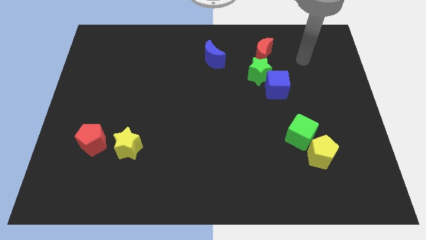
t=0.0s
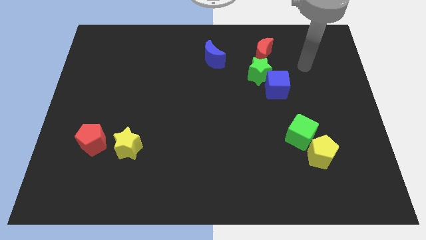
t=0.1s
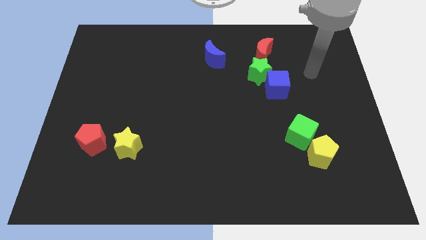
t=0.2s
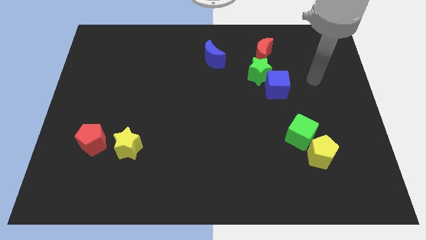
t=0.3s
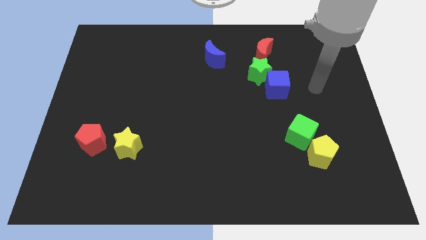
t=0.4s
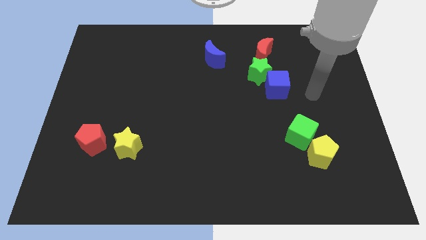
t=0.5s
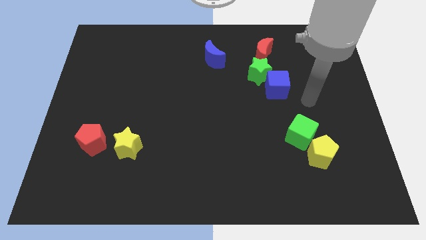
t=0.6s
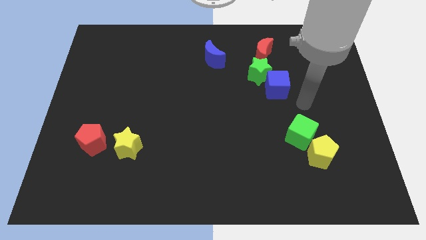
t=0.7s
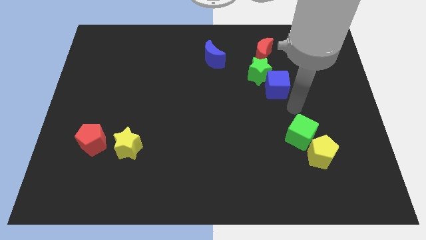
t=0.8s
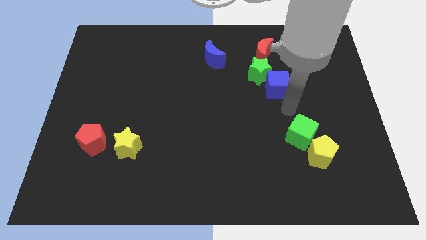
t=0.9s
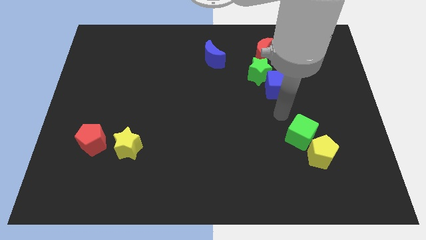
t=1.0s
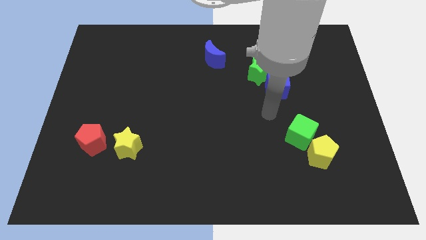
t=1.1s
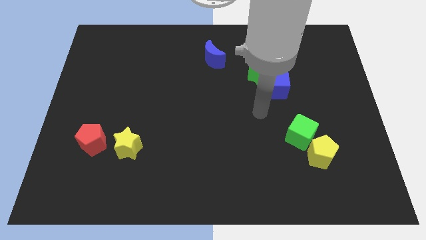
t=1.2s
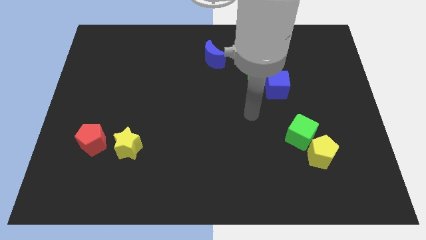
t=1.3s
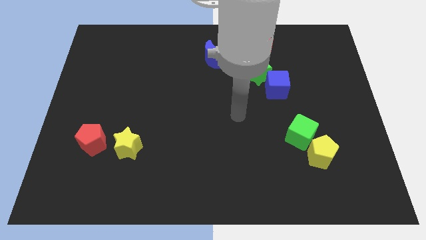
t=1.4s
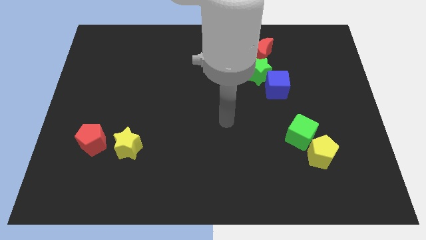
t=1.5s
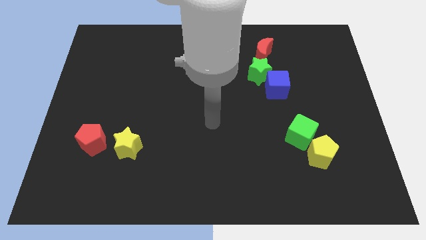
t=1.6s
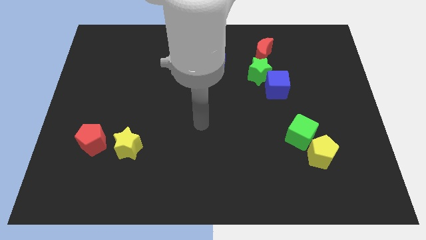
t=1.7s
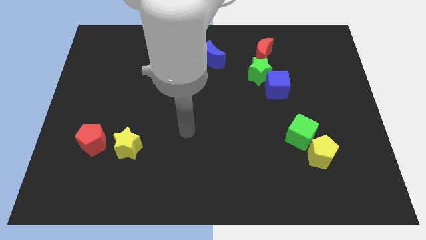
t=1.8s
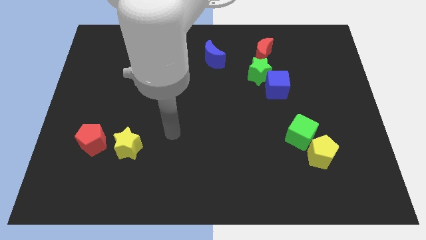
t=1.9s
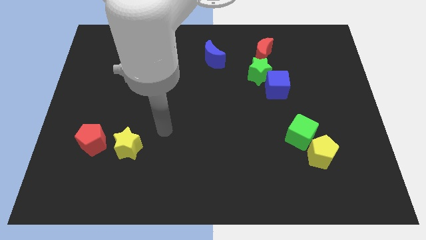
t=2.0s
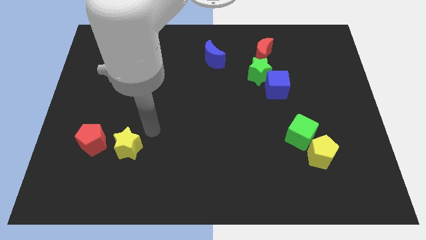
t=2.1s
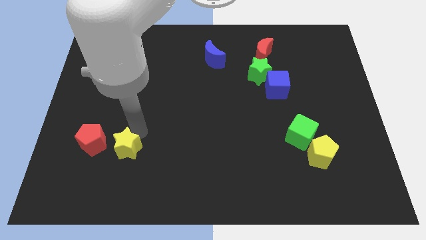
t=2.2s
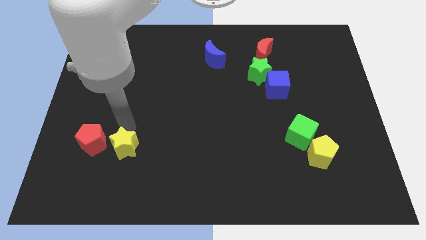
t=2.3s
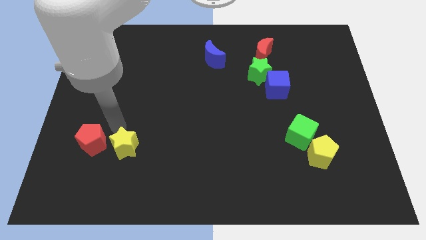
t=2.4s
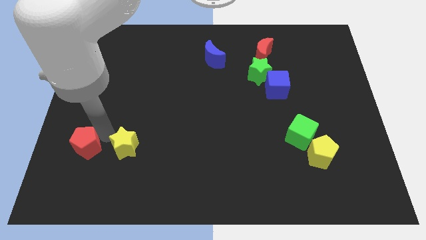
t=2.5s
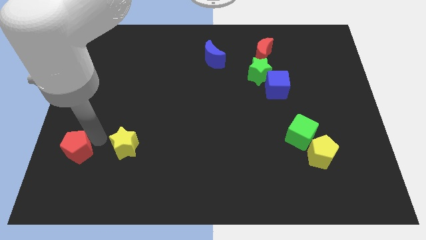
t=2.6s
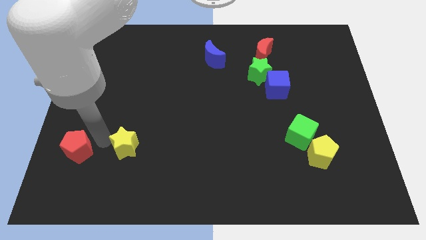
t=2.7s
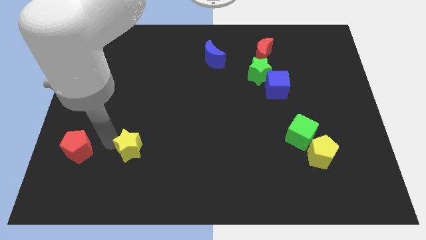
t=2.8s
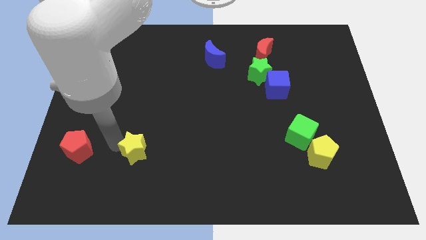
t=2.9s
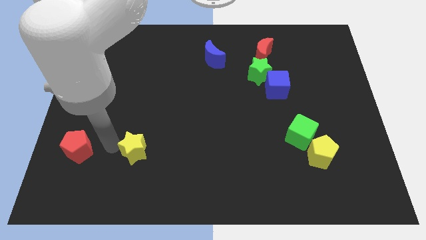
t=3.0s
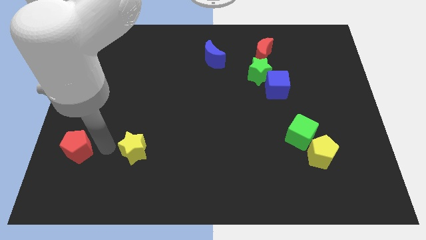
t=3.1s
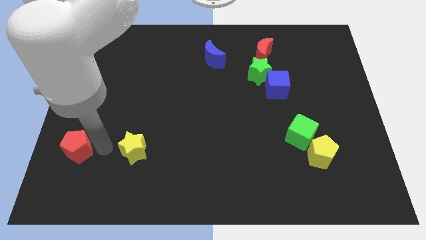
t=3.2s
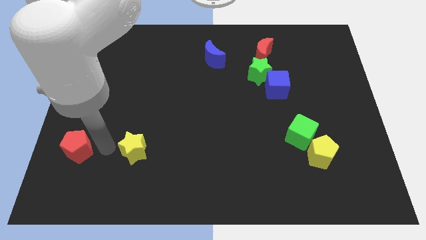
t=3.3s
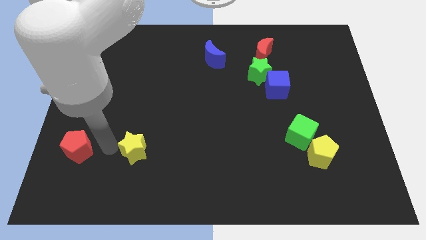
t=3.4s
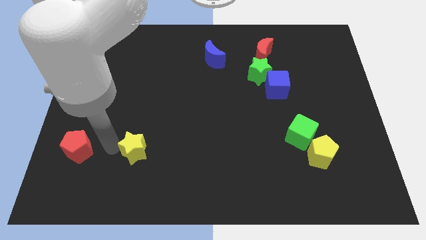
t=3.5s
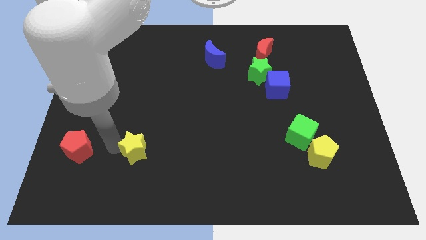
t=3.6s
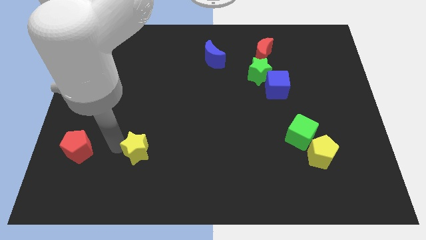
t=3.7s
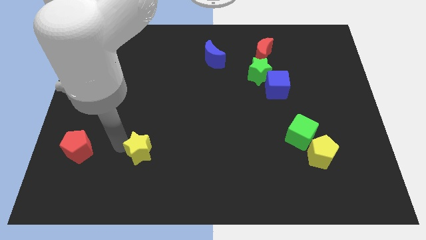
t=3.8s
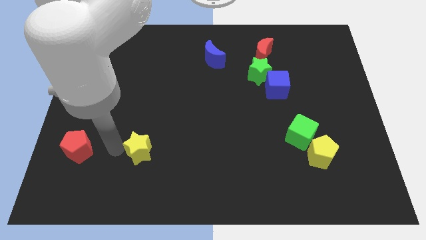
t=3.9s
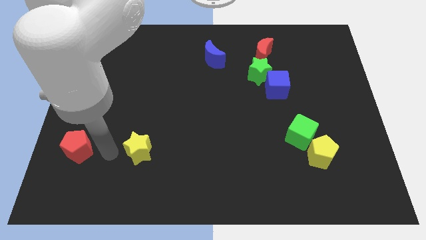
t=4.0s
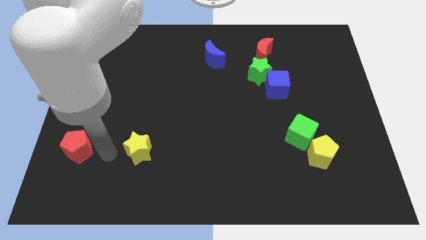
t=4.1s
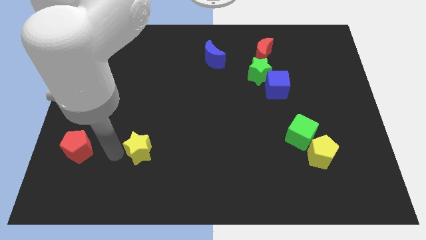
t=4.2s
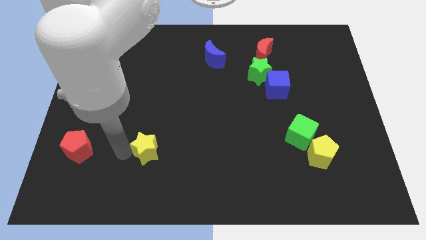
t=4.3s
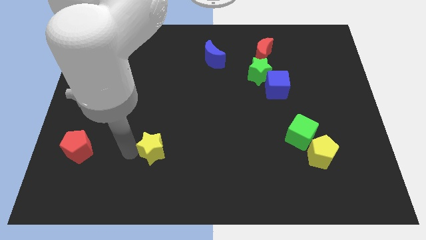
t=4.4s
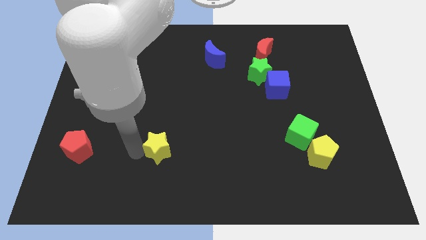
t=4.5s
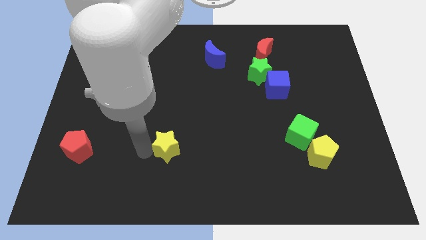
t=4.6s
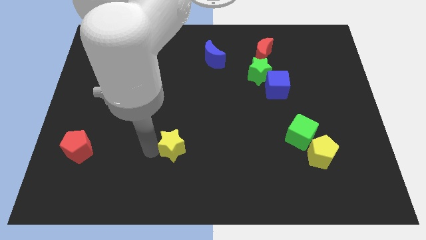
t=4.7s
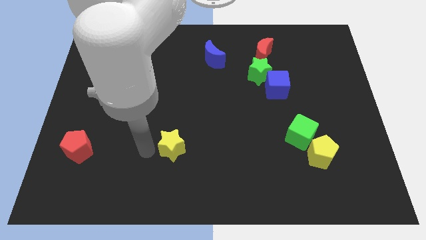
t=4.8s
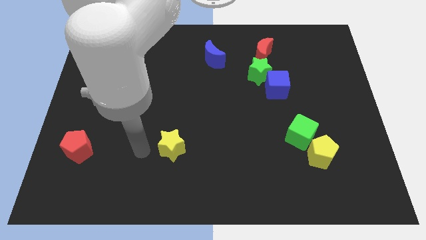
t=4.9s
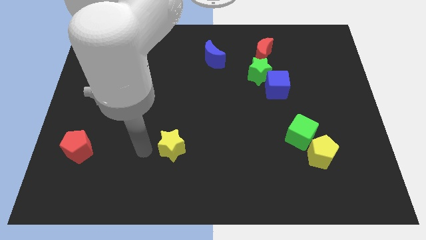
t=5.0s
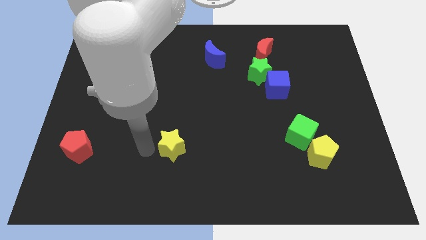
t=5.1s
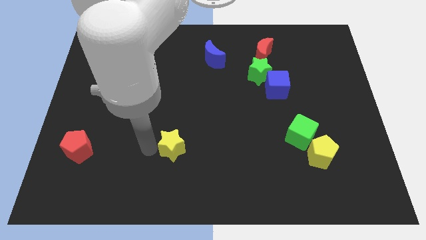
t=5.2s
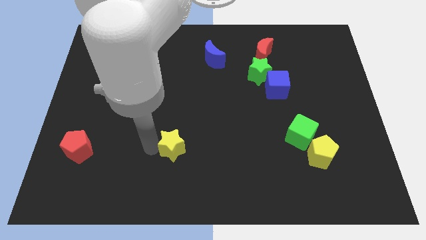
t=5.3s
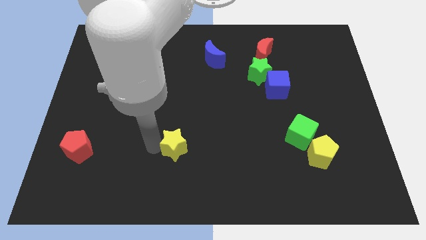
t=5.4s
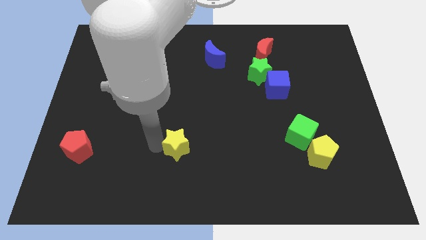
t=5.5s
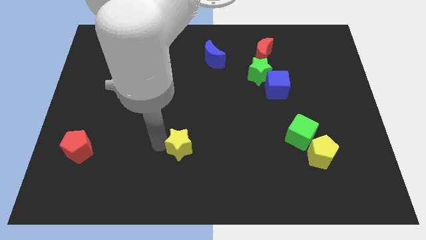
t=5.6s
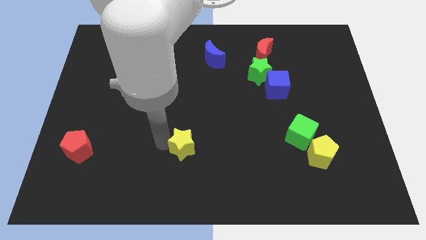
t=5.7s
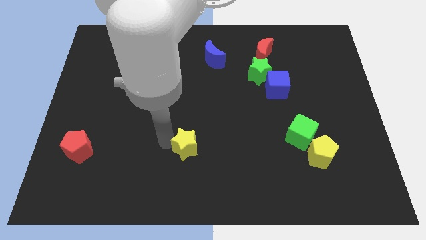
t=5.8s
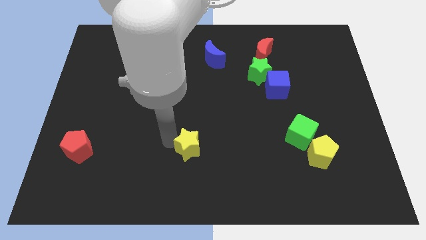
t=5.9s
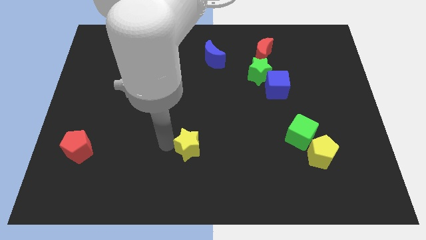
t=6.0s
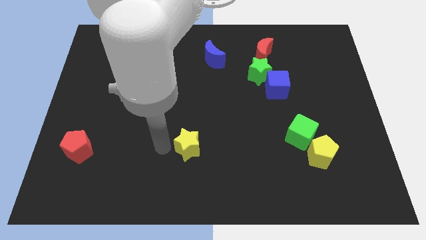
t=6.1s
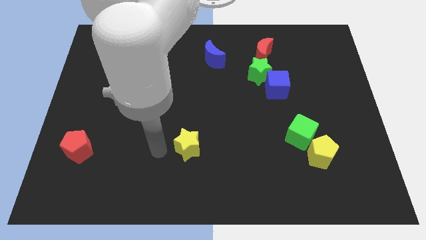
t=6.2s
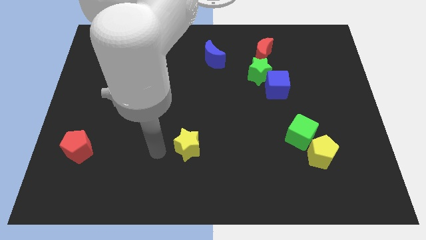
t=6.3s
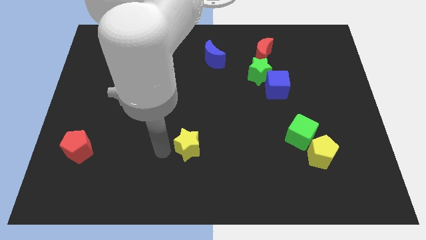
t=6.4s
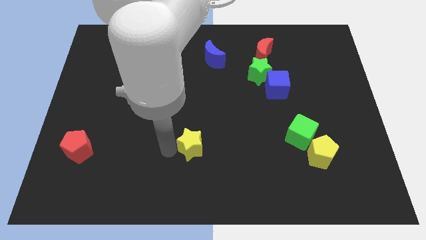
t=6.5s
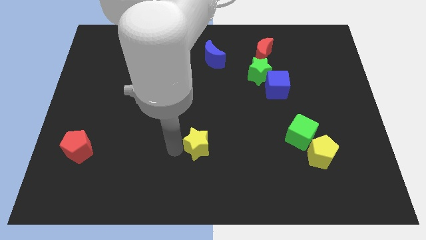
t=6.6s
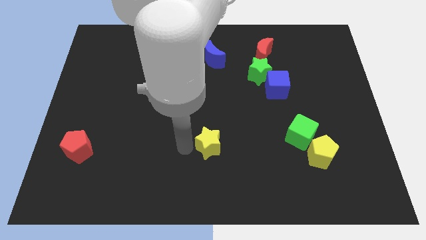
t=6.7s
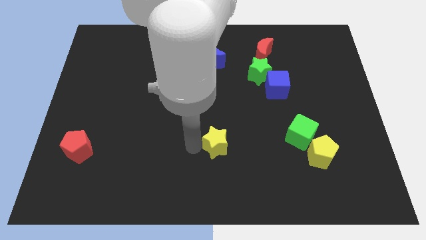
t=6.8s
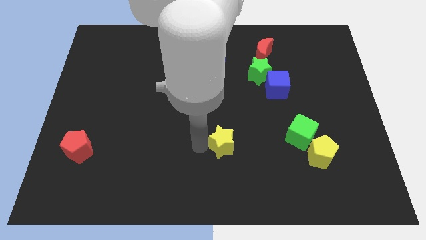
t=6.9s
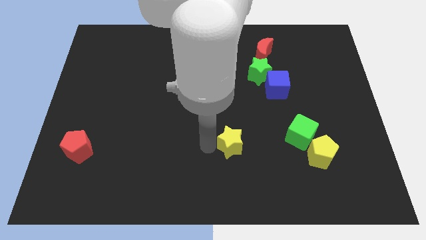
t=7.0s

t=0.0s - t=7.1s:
push the yellow star just left of the green cube
